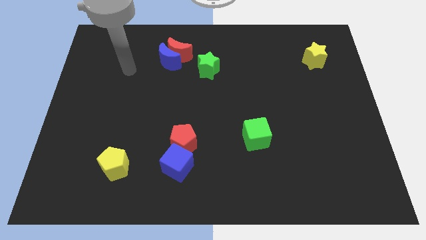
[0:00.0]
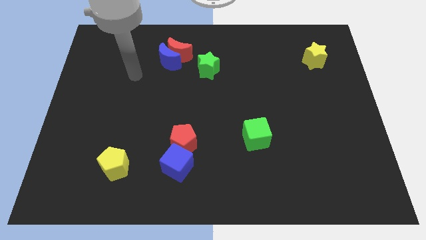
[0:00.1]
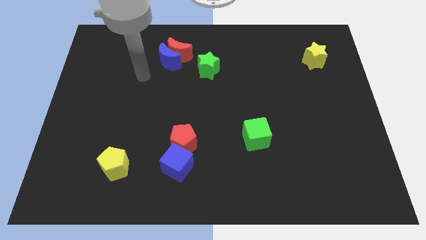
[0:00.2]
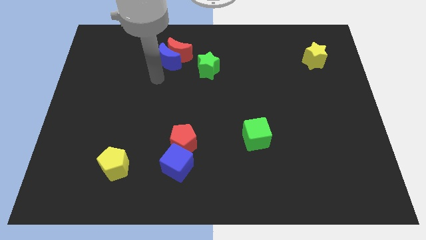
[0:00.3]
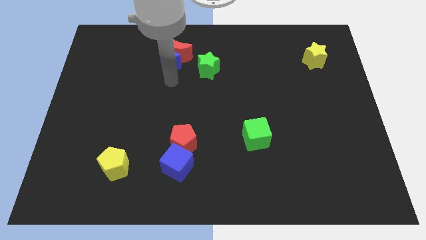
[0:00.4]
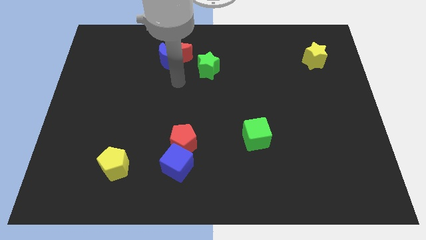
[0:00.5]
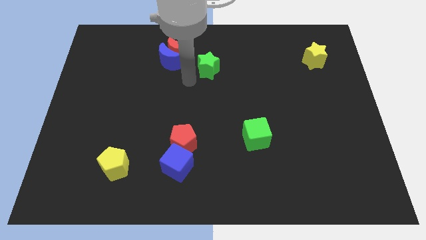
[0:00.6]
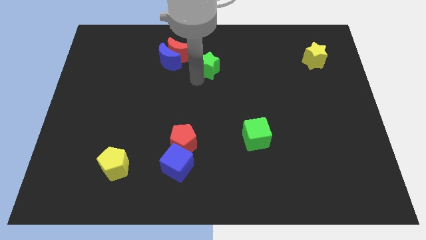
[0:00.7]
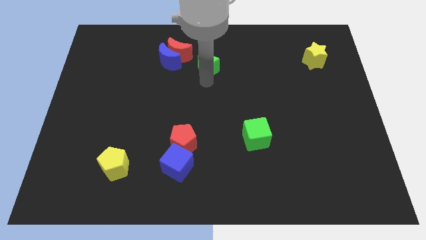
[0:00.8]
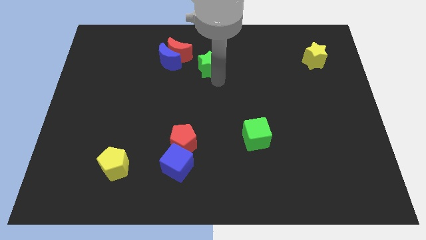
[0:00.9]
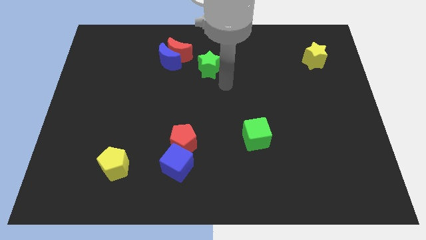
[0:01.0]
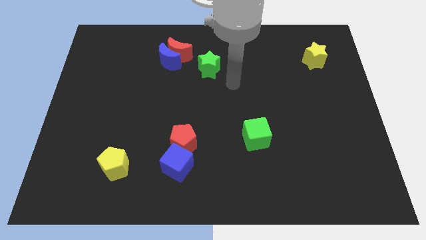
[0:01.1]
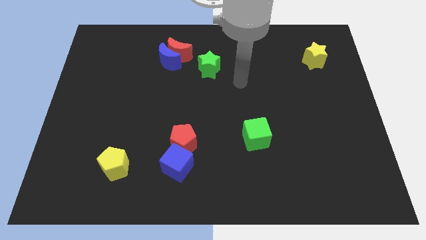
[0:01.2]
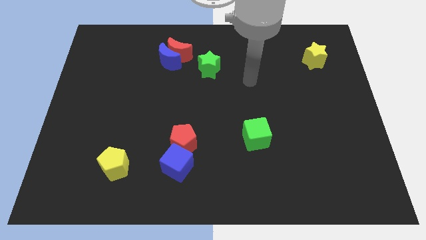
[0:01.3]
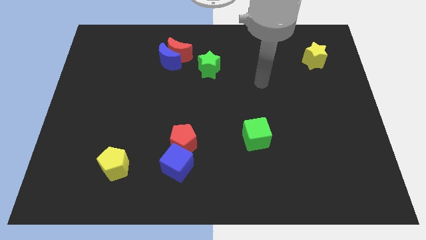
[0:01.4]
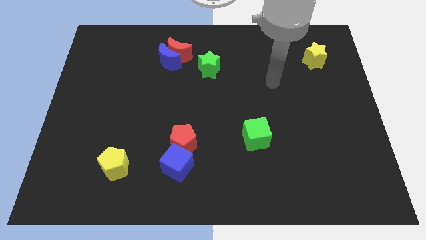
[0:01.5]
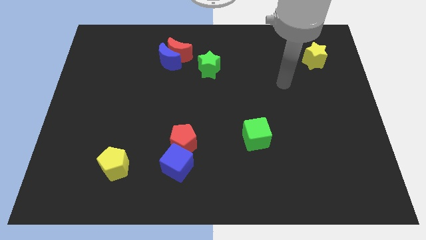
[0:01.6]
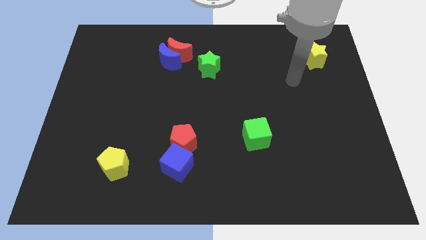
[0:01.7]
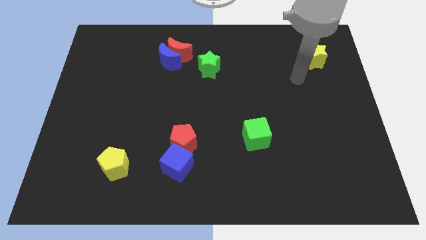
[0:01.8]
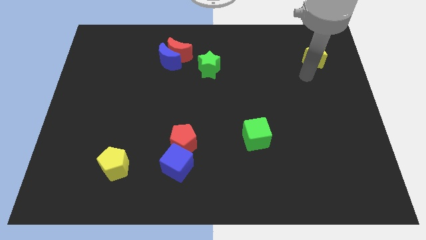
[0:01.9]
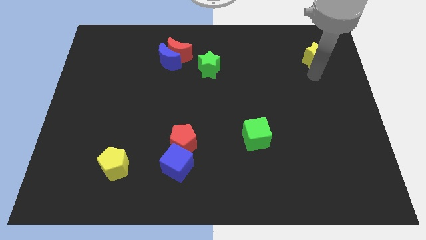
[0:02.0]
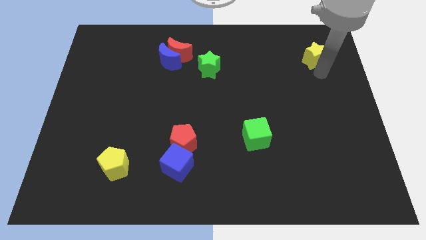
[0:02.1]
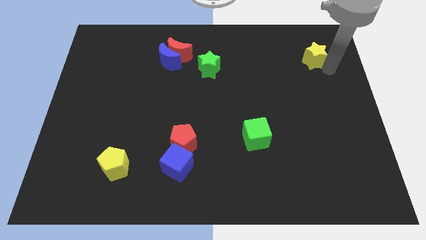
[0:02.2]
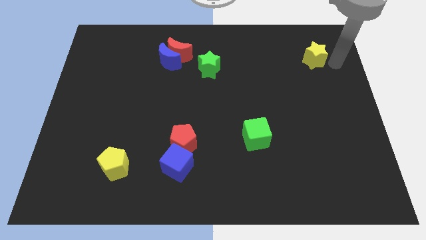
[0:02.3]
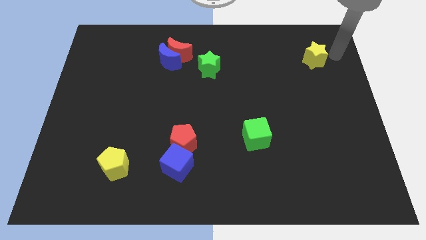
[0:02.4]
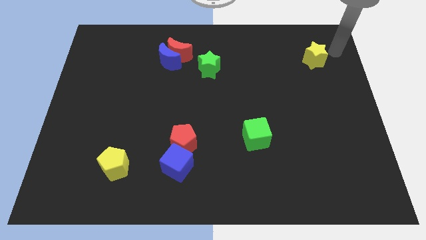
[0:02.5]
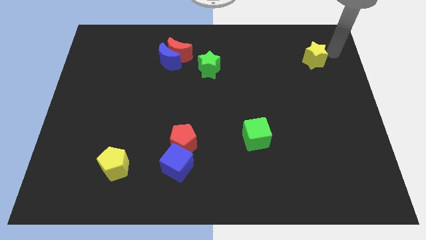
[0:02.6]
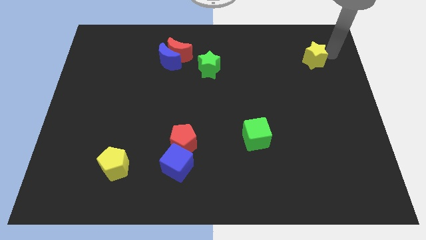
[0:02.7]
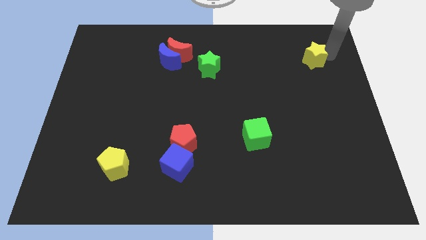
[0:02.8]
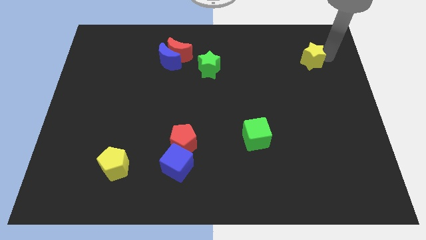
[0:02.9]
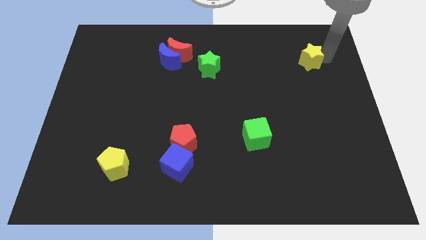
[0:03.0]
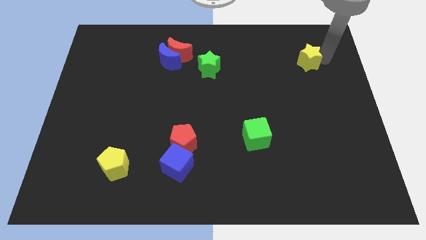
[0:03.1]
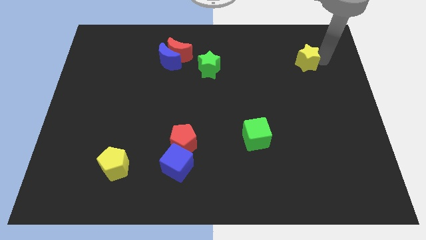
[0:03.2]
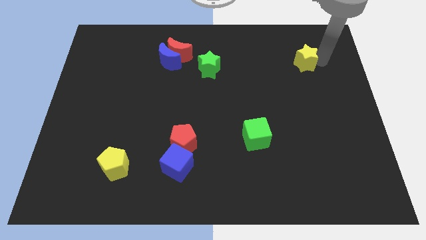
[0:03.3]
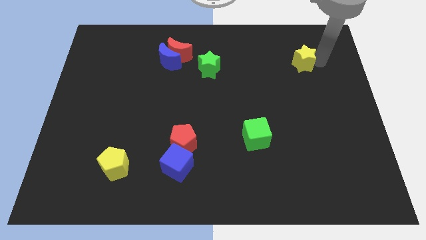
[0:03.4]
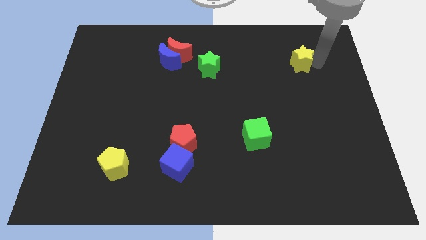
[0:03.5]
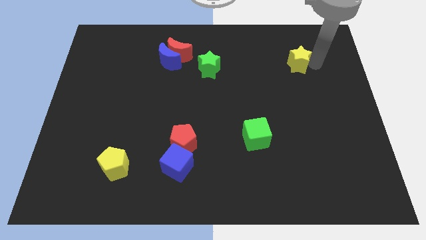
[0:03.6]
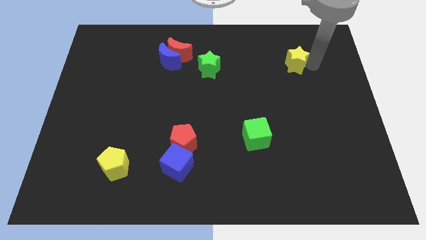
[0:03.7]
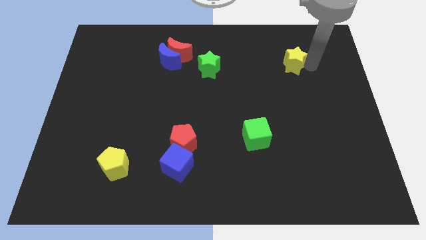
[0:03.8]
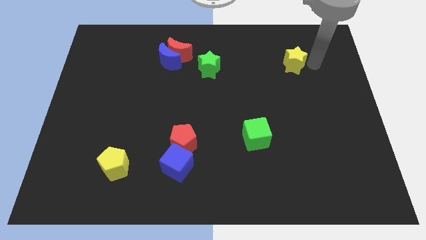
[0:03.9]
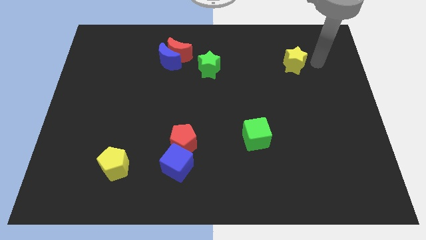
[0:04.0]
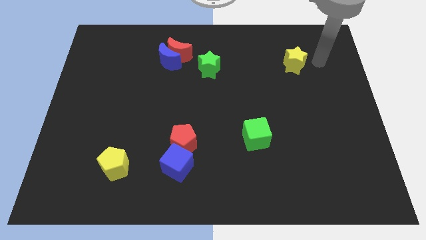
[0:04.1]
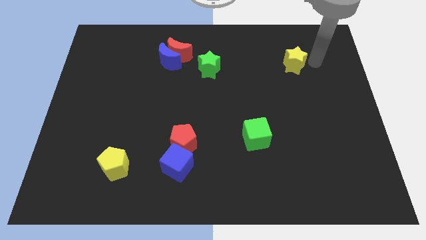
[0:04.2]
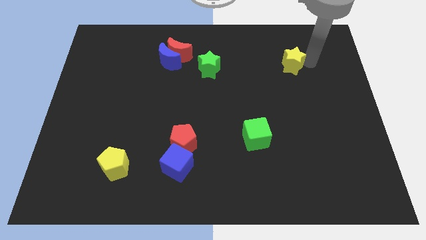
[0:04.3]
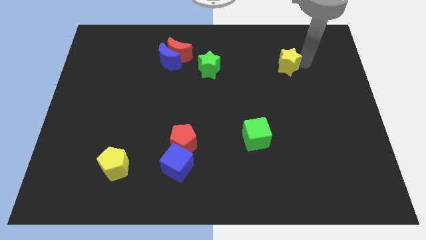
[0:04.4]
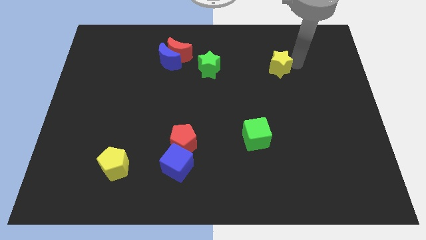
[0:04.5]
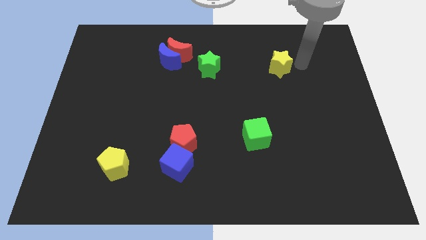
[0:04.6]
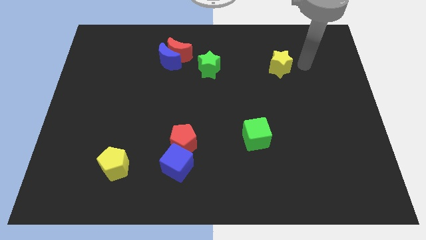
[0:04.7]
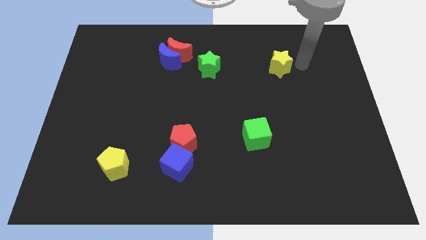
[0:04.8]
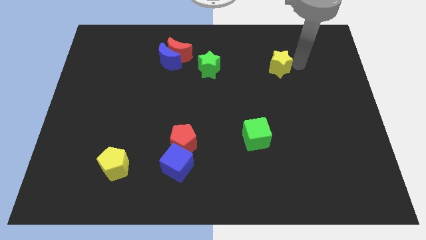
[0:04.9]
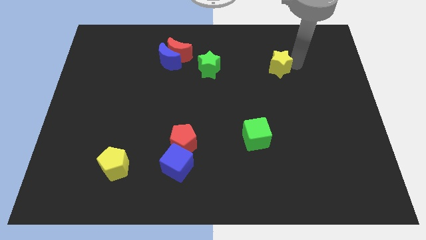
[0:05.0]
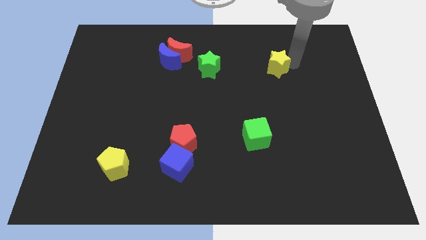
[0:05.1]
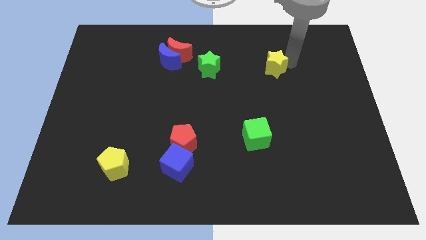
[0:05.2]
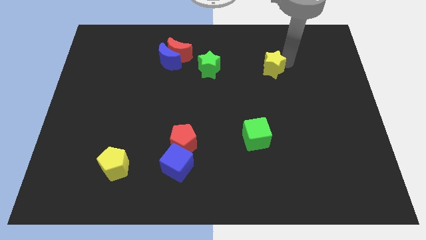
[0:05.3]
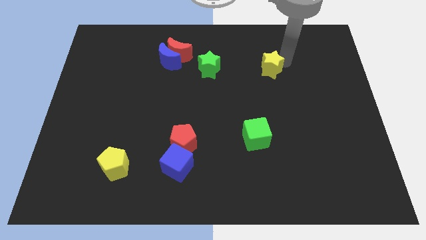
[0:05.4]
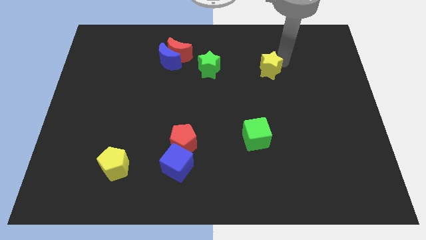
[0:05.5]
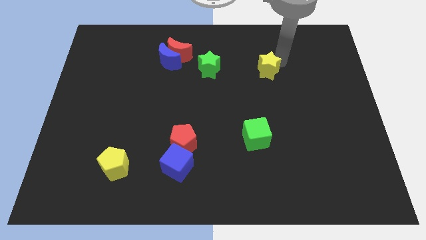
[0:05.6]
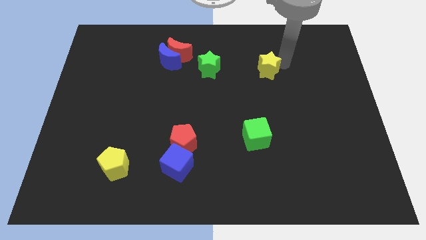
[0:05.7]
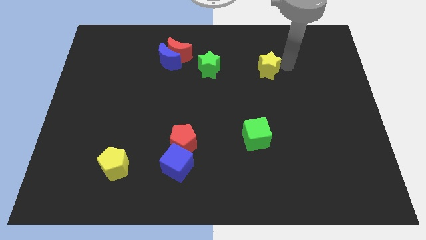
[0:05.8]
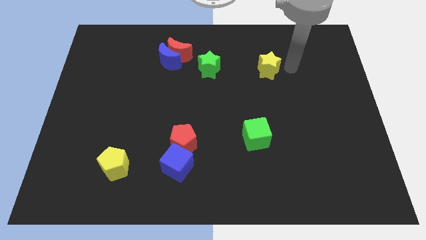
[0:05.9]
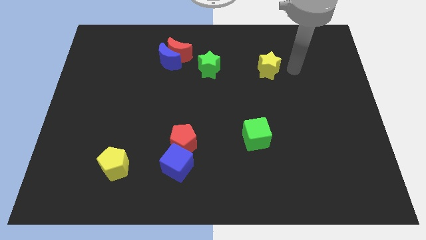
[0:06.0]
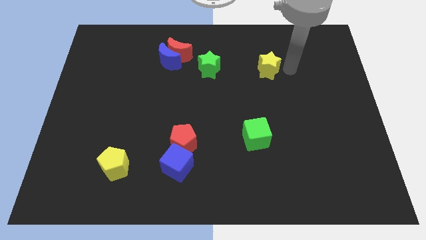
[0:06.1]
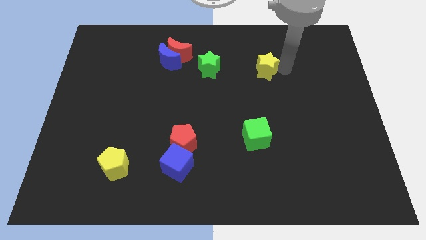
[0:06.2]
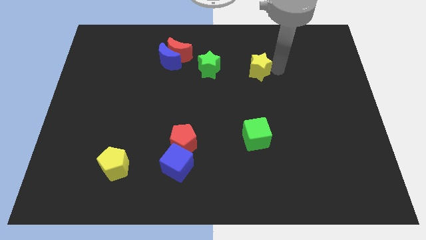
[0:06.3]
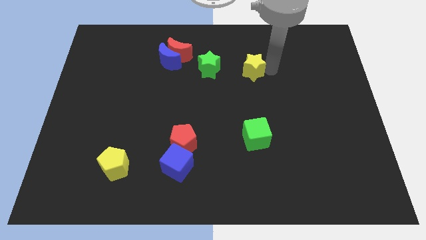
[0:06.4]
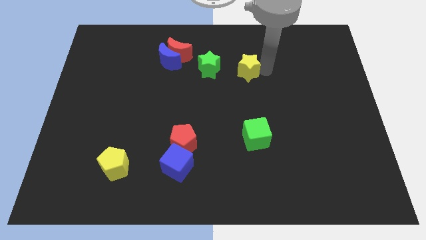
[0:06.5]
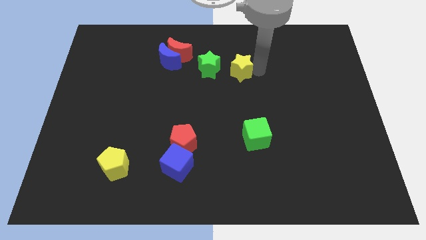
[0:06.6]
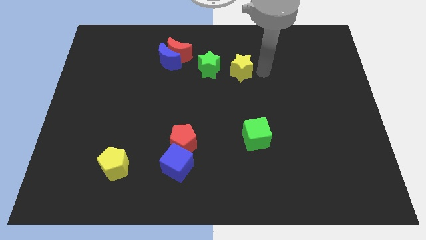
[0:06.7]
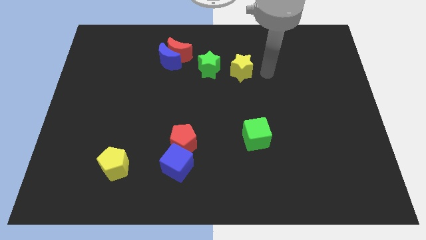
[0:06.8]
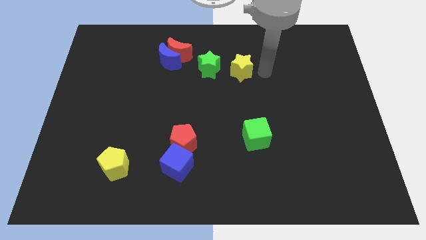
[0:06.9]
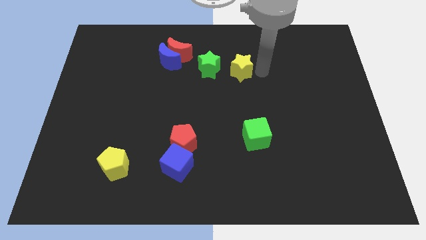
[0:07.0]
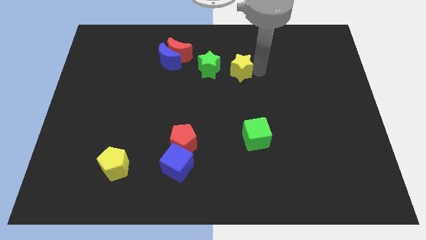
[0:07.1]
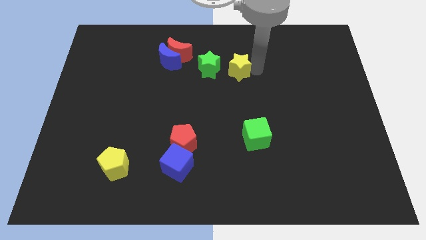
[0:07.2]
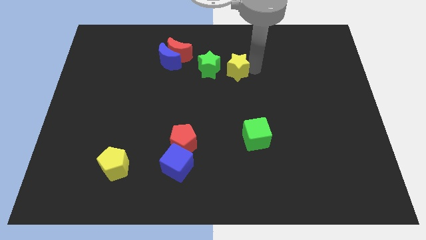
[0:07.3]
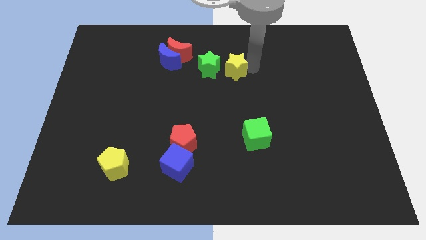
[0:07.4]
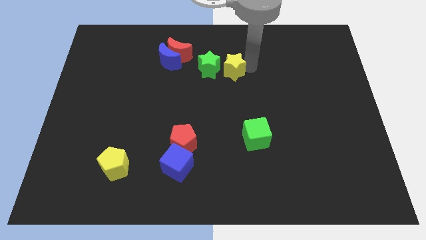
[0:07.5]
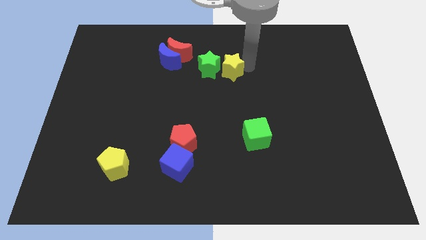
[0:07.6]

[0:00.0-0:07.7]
push the yellow star next to the green star
